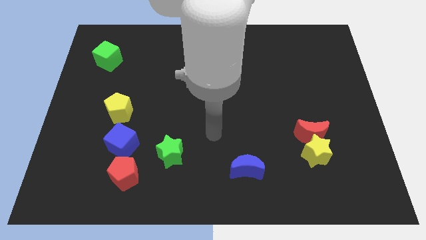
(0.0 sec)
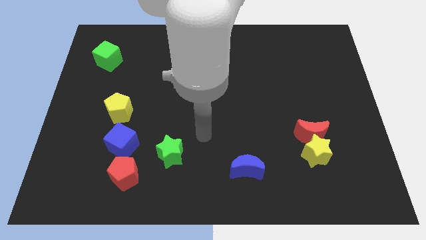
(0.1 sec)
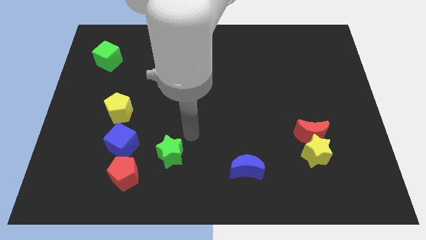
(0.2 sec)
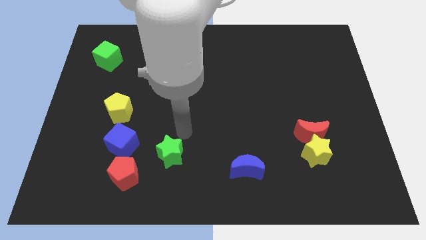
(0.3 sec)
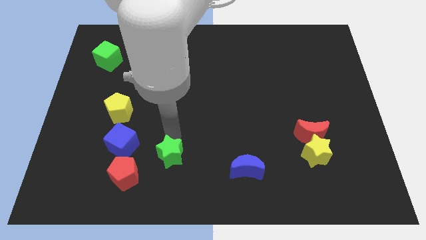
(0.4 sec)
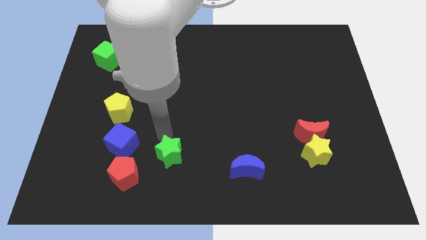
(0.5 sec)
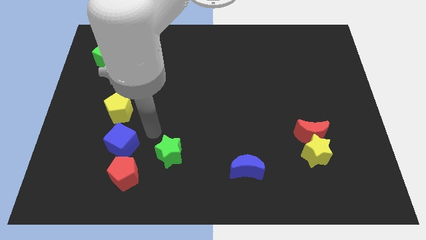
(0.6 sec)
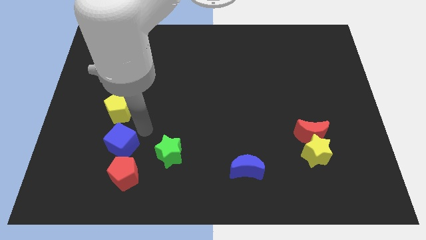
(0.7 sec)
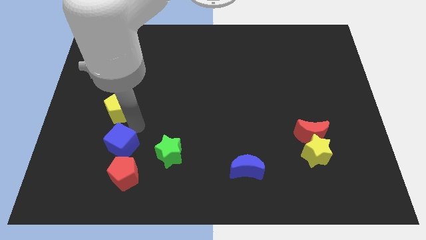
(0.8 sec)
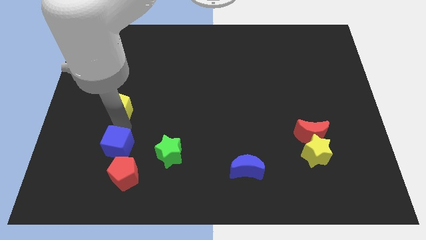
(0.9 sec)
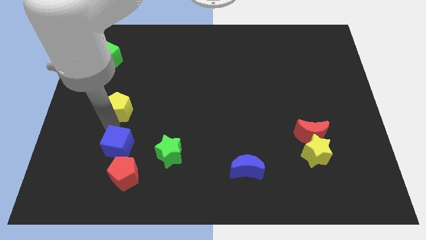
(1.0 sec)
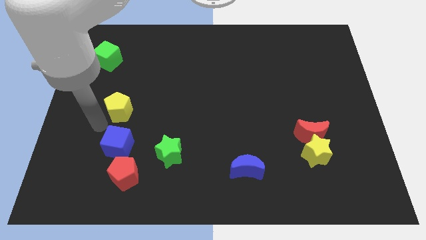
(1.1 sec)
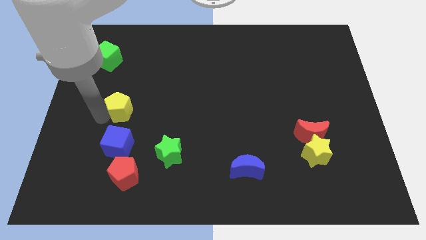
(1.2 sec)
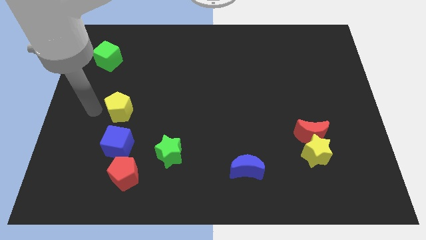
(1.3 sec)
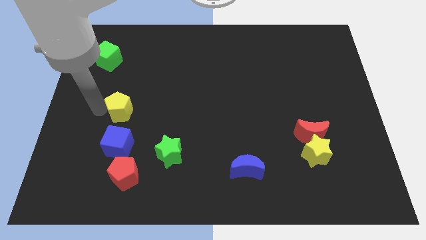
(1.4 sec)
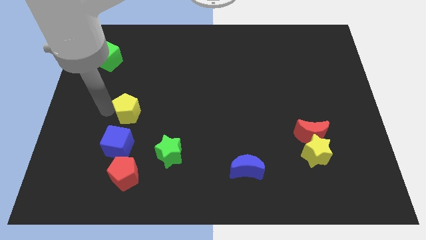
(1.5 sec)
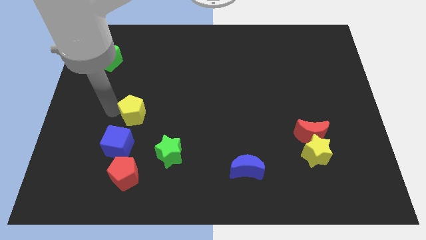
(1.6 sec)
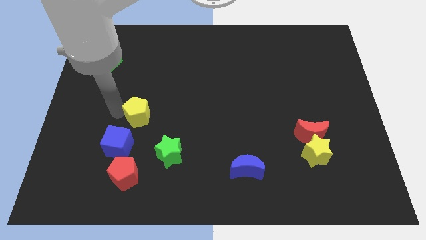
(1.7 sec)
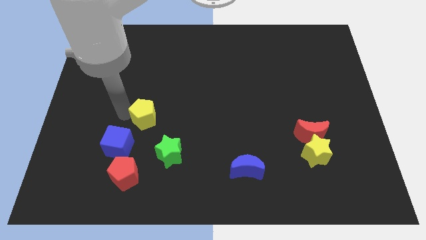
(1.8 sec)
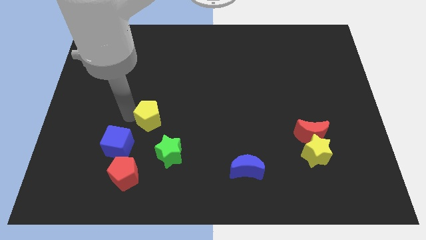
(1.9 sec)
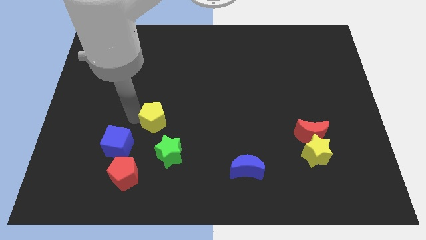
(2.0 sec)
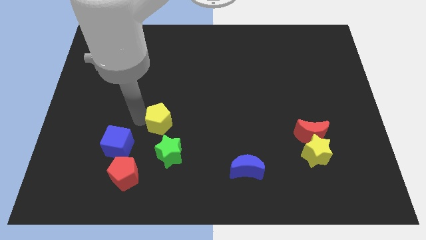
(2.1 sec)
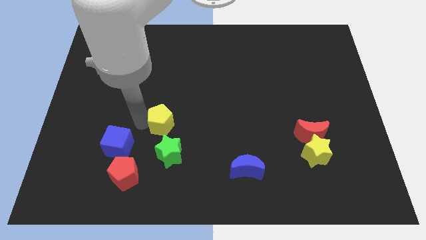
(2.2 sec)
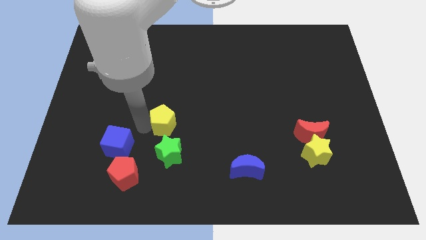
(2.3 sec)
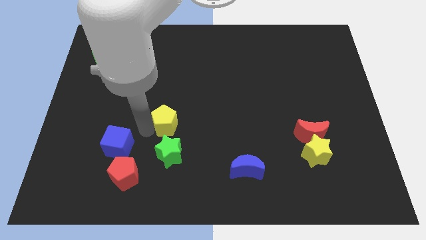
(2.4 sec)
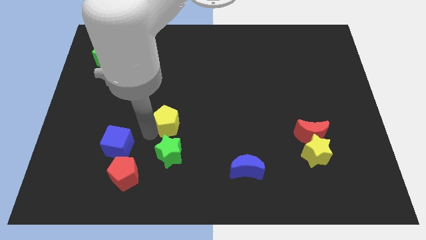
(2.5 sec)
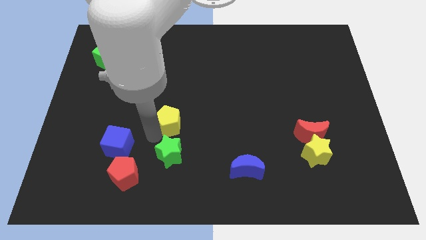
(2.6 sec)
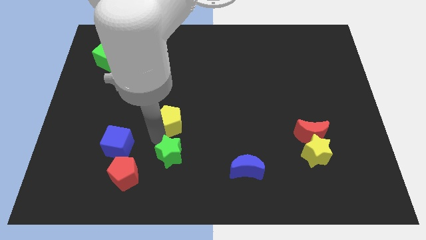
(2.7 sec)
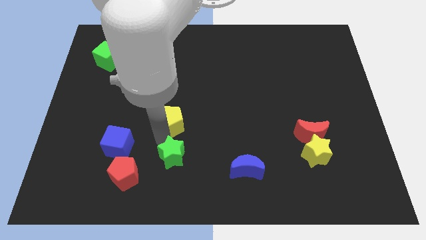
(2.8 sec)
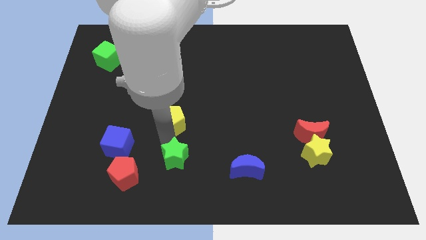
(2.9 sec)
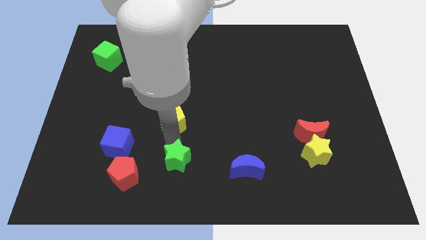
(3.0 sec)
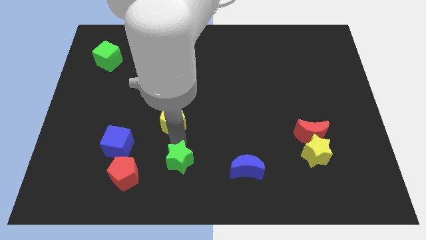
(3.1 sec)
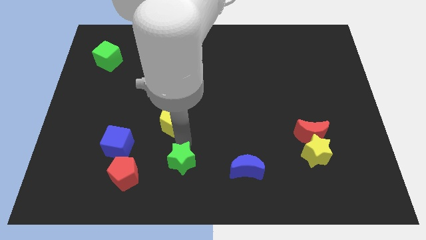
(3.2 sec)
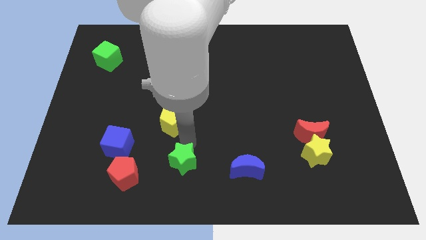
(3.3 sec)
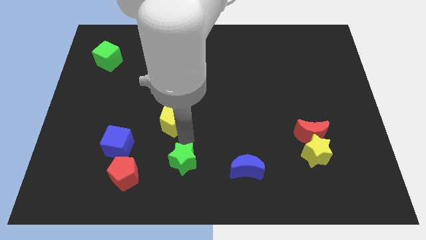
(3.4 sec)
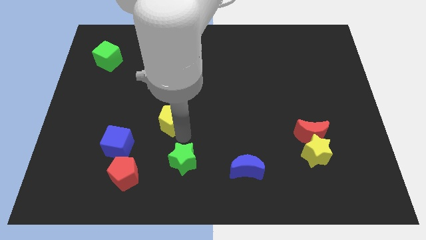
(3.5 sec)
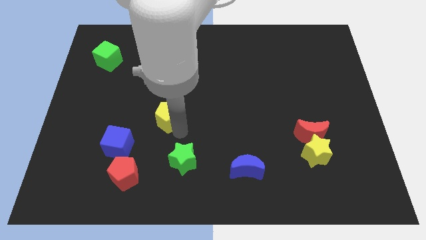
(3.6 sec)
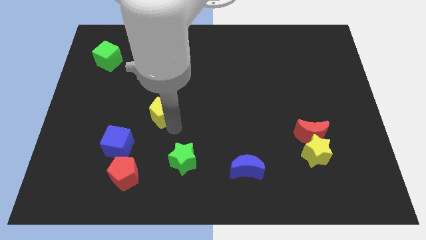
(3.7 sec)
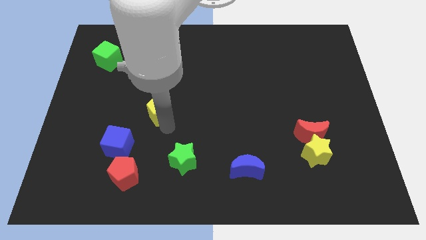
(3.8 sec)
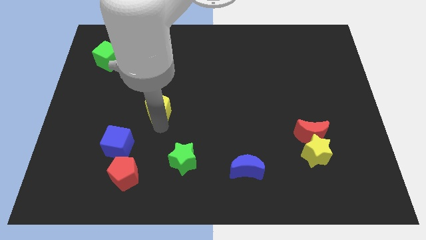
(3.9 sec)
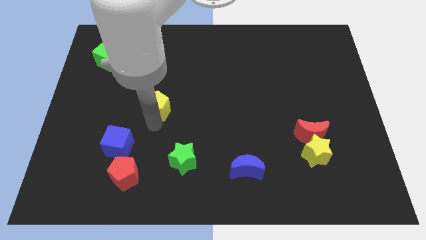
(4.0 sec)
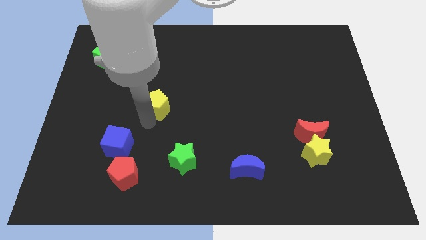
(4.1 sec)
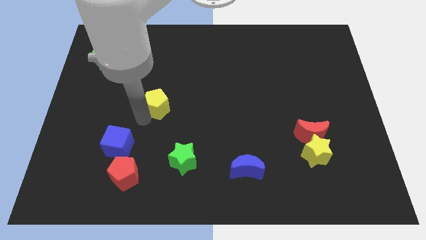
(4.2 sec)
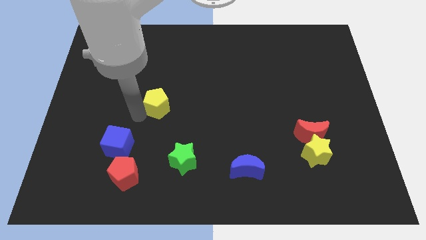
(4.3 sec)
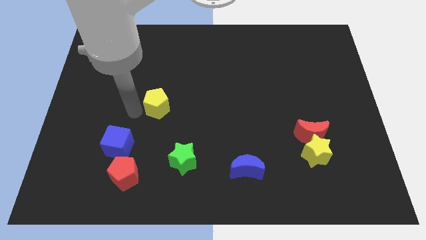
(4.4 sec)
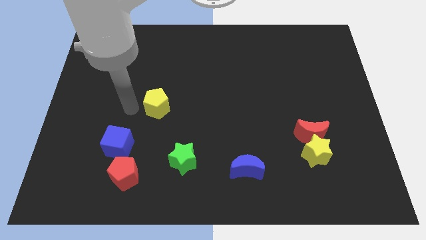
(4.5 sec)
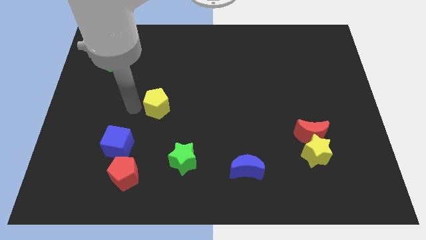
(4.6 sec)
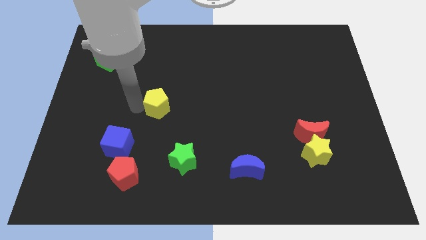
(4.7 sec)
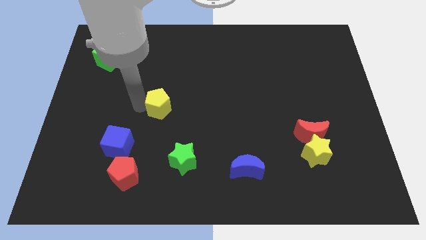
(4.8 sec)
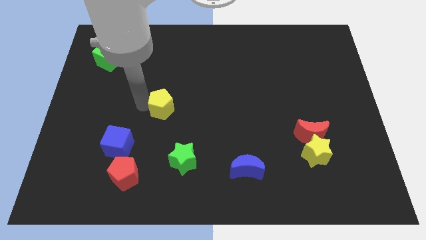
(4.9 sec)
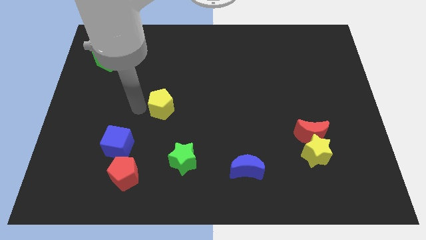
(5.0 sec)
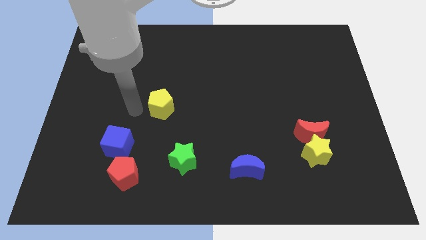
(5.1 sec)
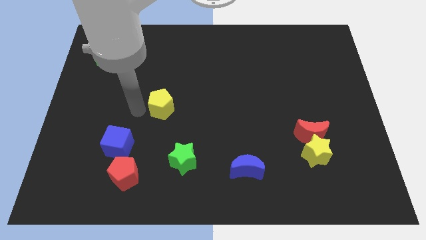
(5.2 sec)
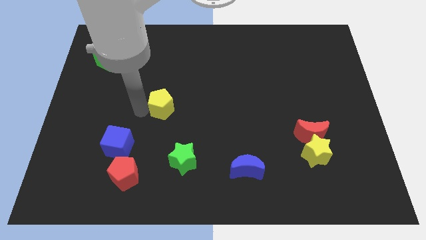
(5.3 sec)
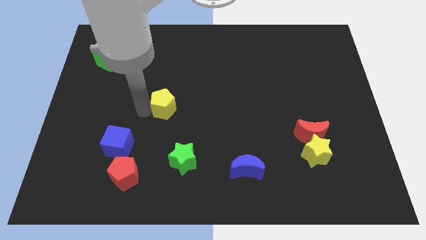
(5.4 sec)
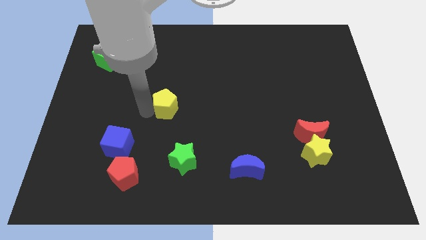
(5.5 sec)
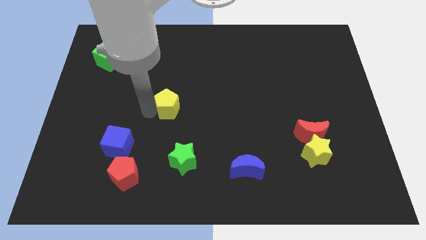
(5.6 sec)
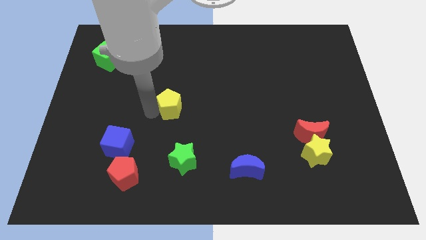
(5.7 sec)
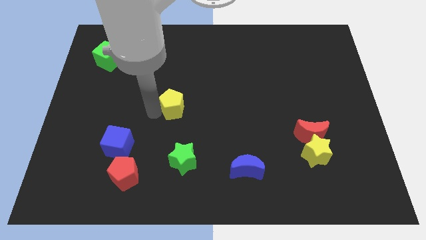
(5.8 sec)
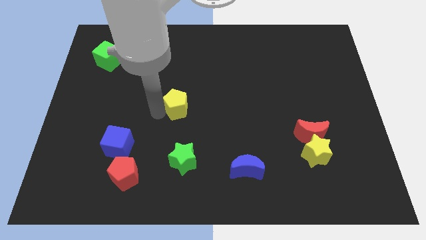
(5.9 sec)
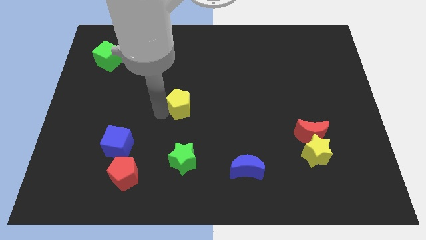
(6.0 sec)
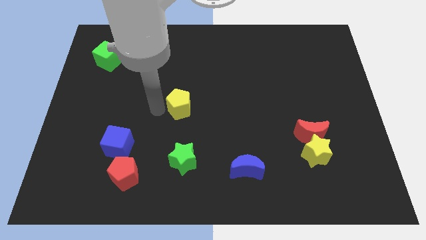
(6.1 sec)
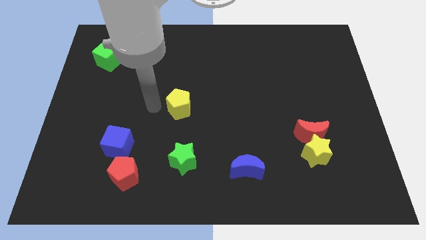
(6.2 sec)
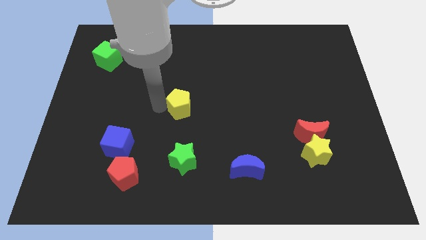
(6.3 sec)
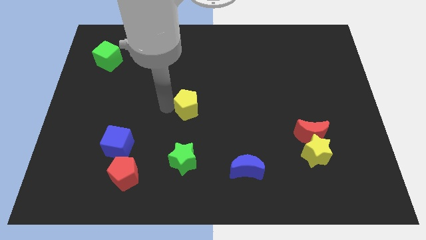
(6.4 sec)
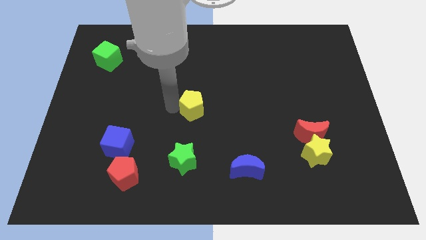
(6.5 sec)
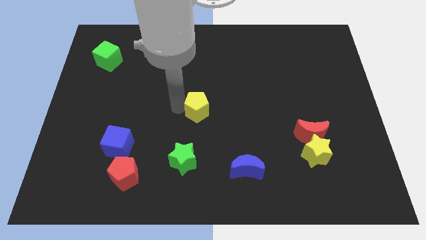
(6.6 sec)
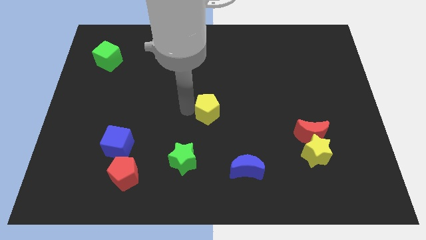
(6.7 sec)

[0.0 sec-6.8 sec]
slide the yellow pentagon right

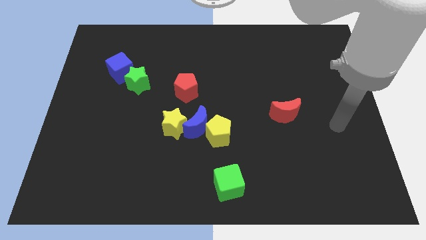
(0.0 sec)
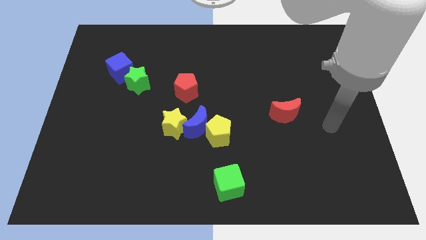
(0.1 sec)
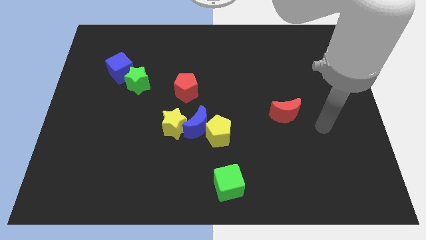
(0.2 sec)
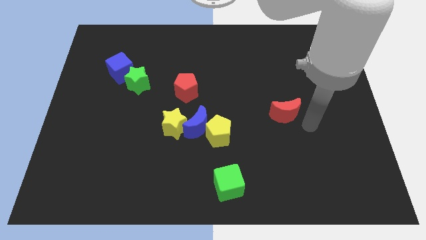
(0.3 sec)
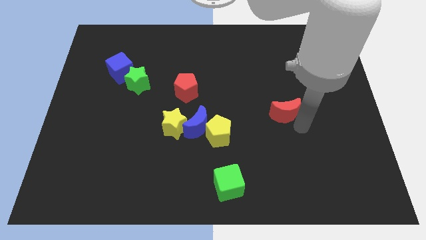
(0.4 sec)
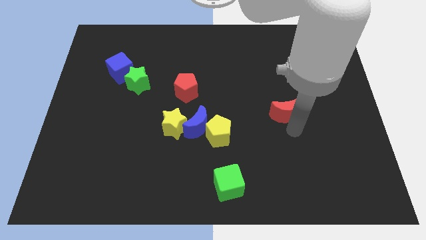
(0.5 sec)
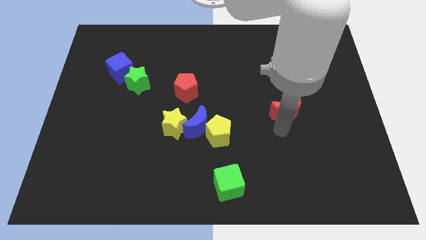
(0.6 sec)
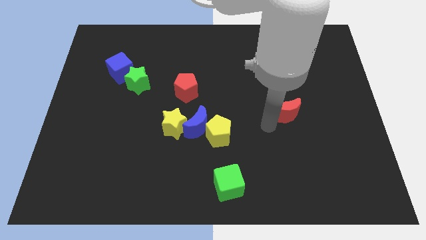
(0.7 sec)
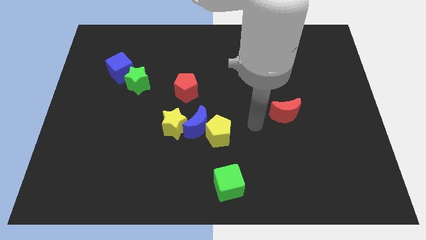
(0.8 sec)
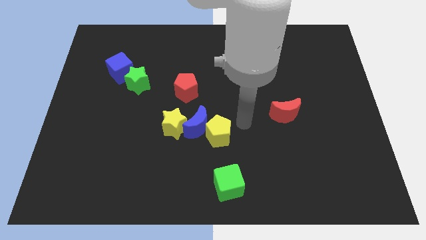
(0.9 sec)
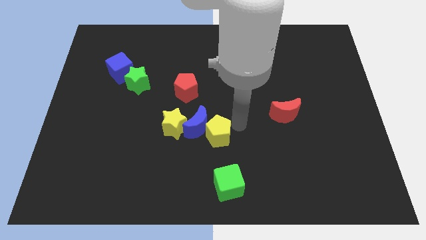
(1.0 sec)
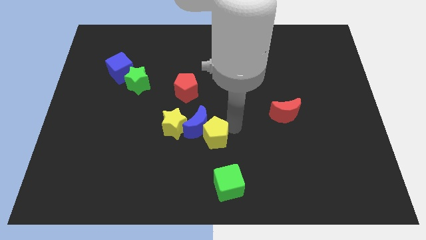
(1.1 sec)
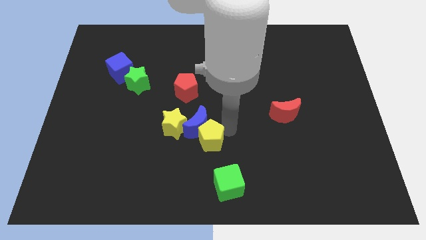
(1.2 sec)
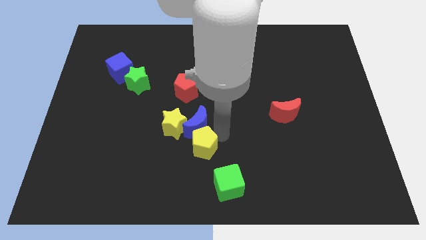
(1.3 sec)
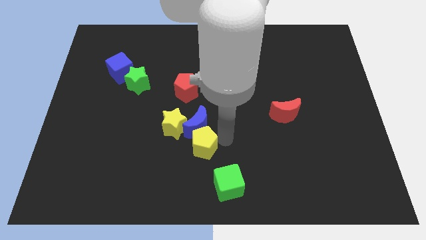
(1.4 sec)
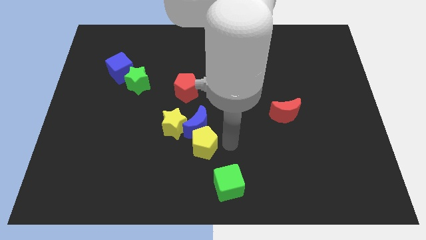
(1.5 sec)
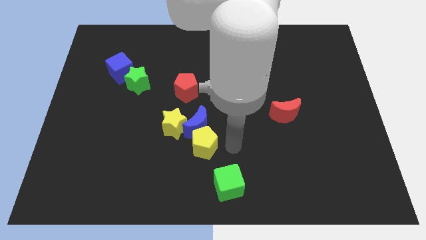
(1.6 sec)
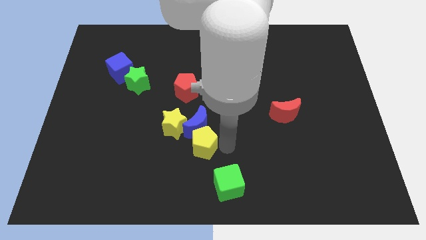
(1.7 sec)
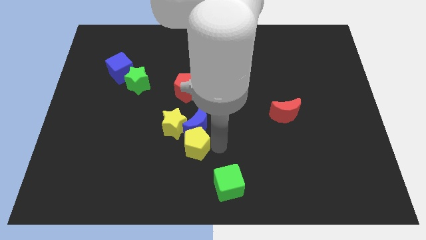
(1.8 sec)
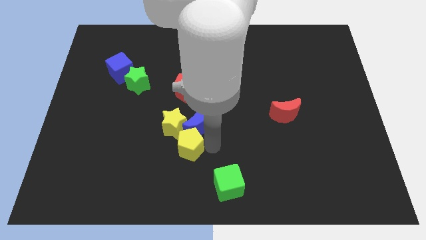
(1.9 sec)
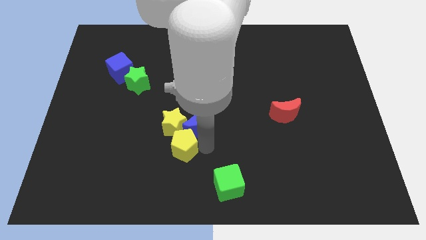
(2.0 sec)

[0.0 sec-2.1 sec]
push the yellow pentagon a little to the left
